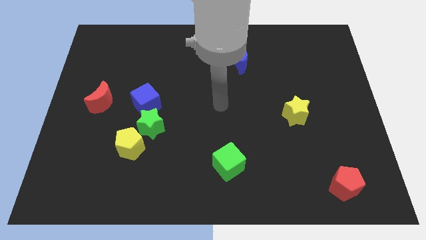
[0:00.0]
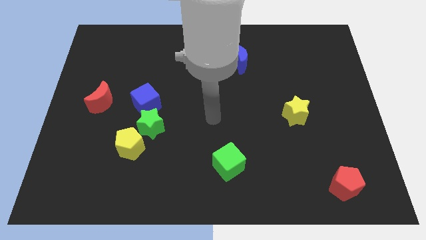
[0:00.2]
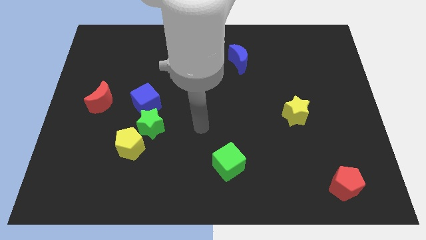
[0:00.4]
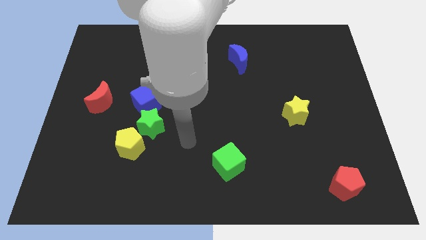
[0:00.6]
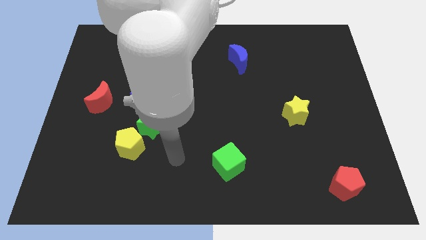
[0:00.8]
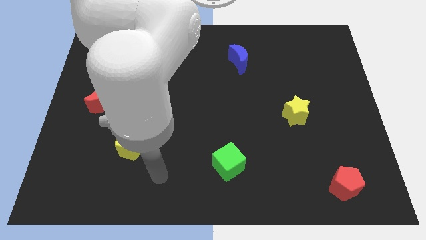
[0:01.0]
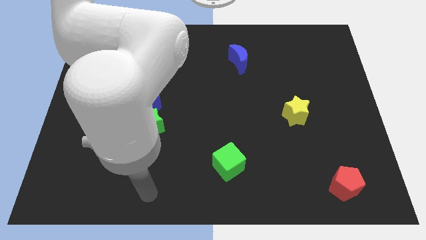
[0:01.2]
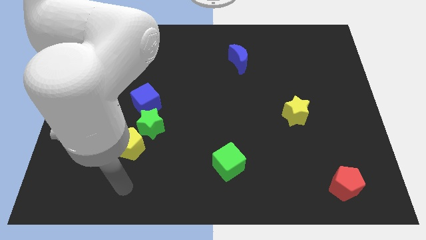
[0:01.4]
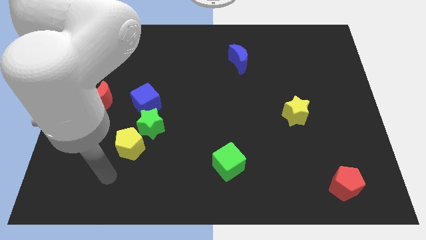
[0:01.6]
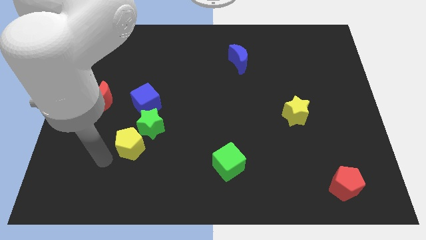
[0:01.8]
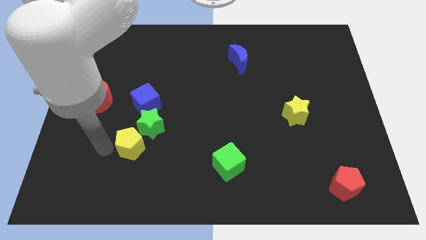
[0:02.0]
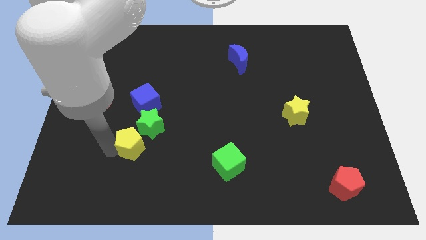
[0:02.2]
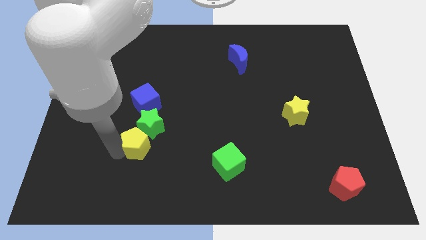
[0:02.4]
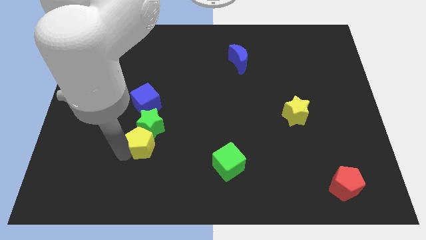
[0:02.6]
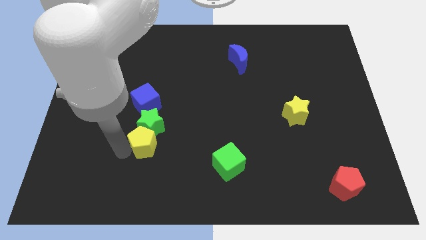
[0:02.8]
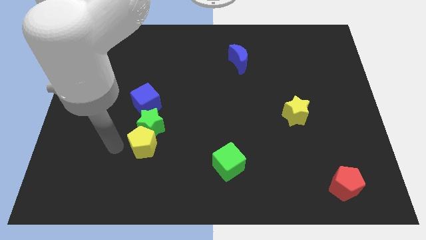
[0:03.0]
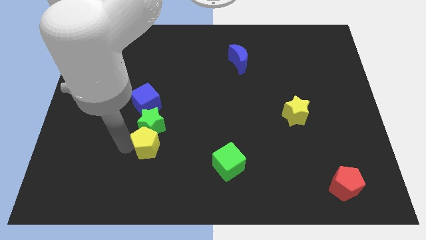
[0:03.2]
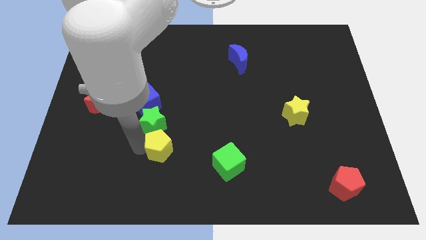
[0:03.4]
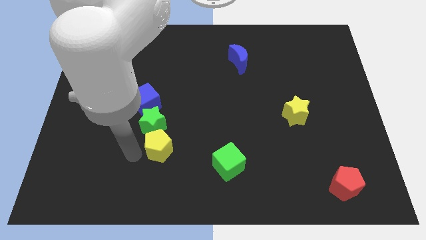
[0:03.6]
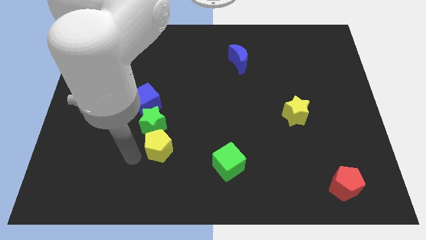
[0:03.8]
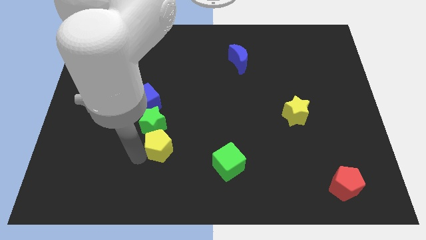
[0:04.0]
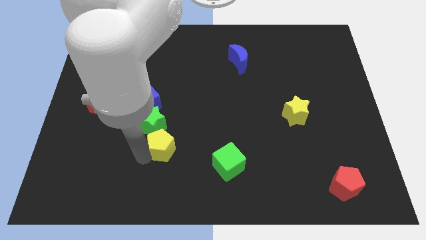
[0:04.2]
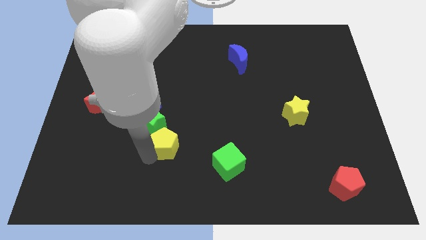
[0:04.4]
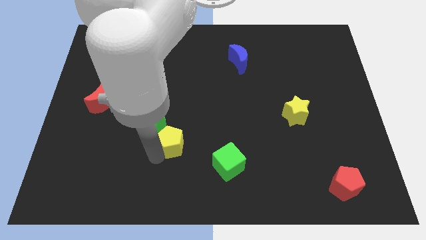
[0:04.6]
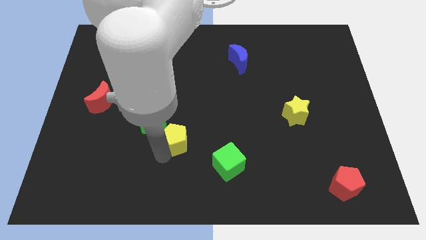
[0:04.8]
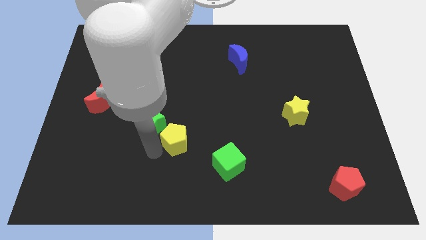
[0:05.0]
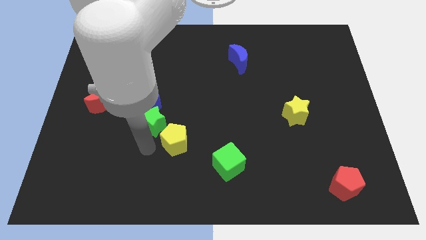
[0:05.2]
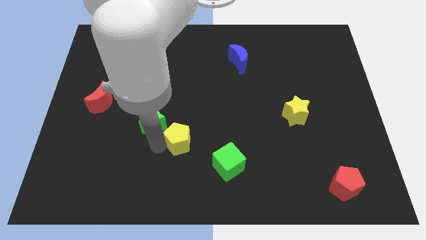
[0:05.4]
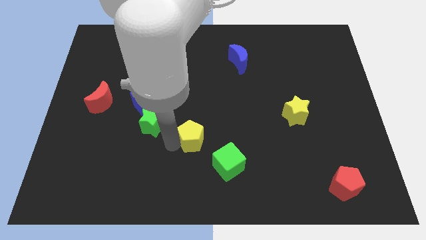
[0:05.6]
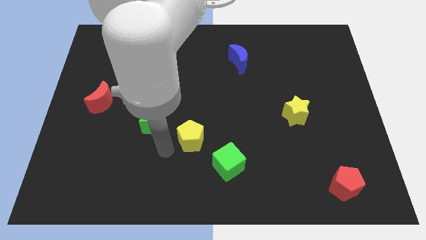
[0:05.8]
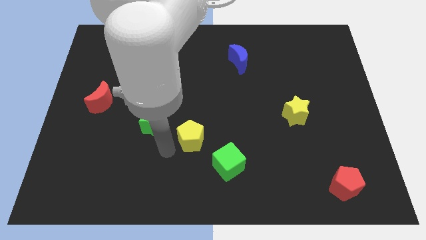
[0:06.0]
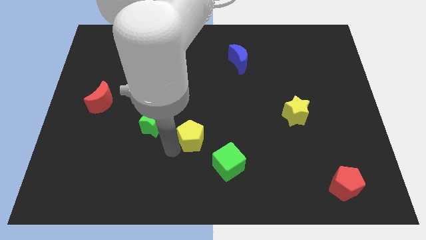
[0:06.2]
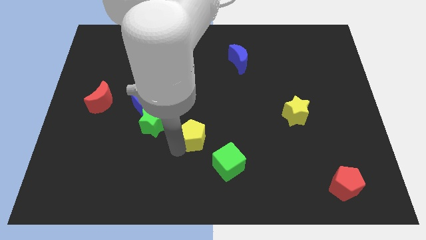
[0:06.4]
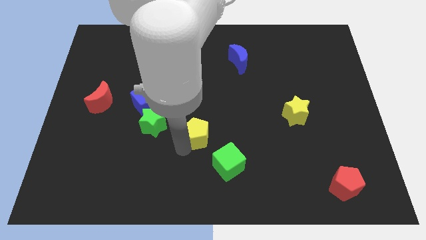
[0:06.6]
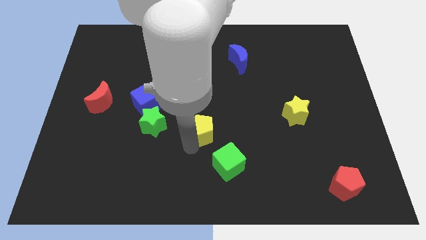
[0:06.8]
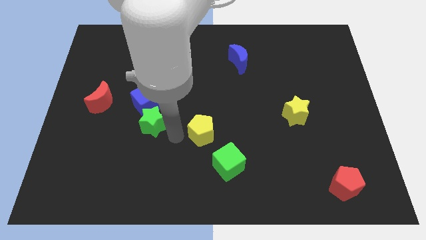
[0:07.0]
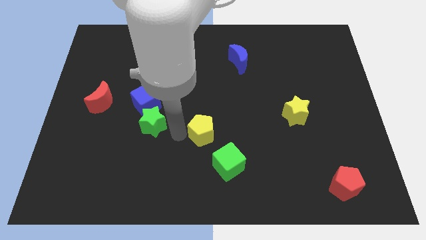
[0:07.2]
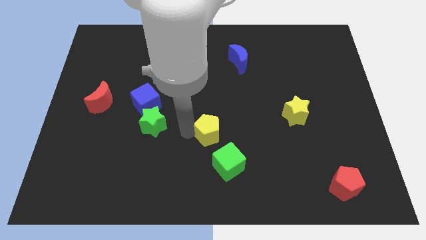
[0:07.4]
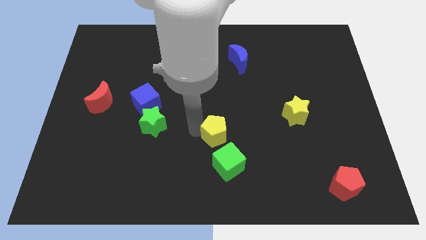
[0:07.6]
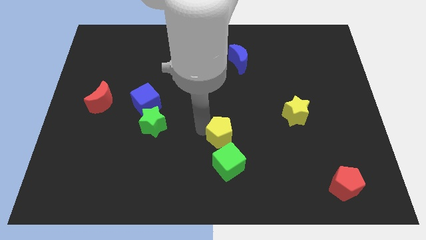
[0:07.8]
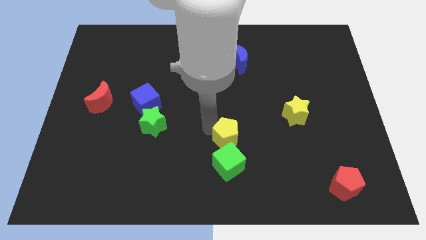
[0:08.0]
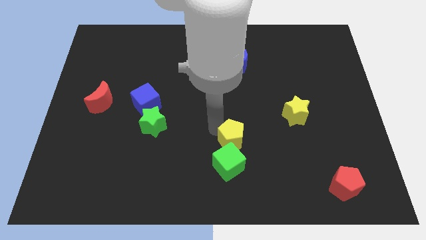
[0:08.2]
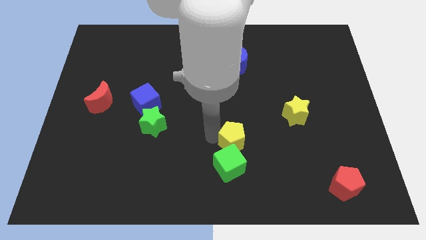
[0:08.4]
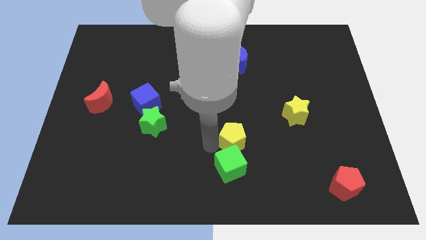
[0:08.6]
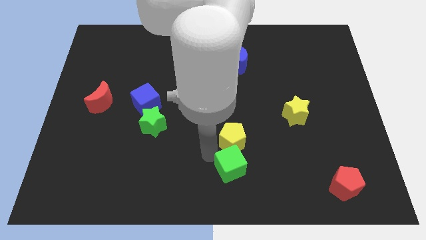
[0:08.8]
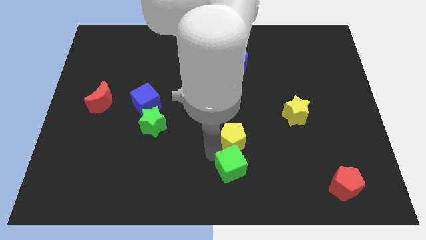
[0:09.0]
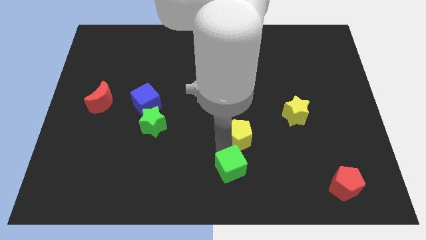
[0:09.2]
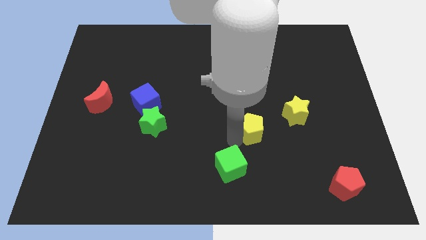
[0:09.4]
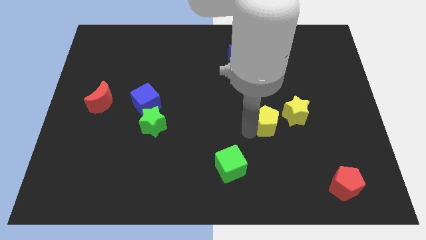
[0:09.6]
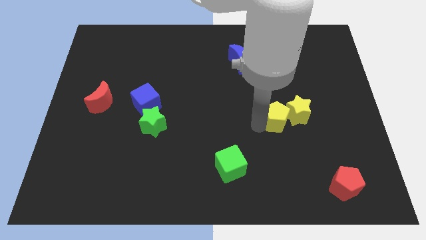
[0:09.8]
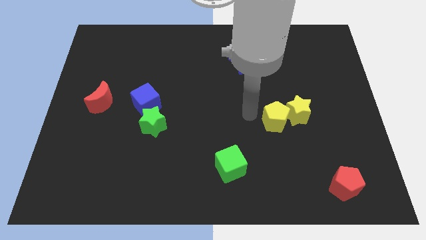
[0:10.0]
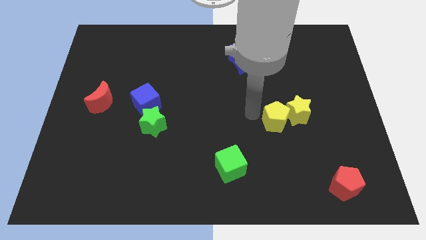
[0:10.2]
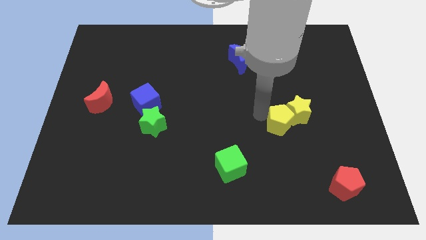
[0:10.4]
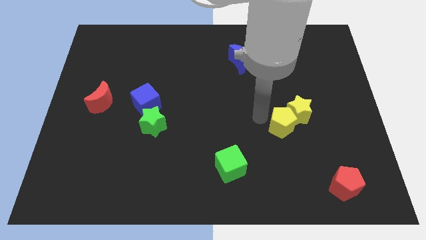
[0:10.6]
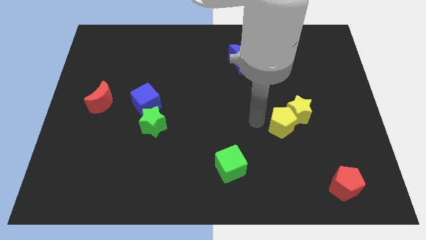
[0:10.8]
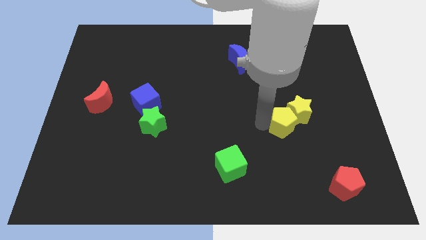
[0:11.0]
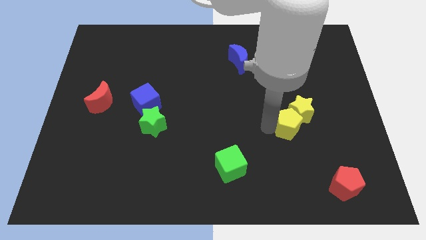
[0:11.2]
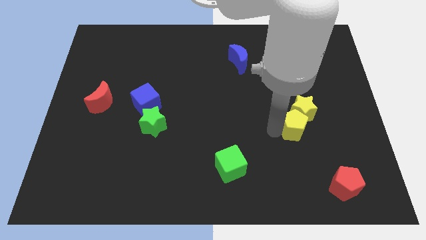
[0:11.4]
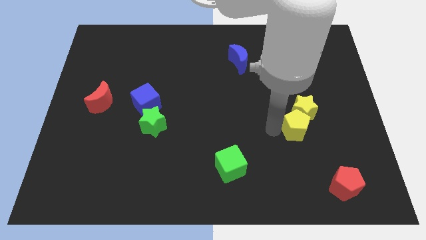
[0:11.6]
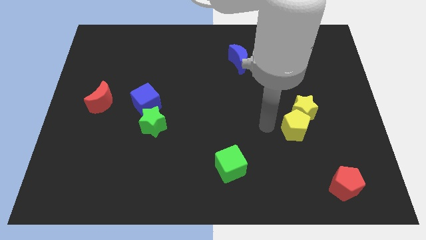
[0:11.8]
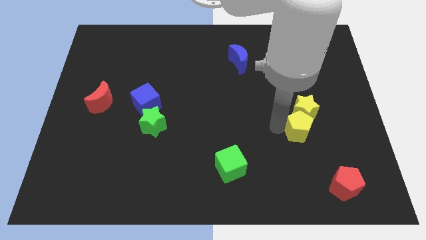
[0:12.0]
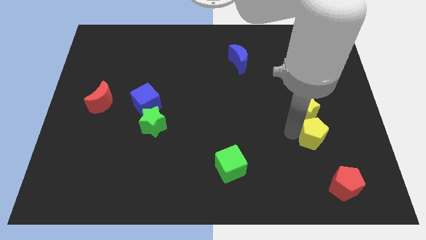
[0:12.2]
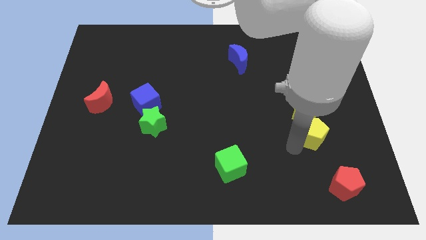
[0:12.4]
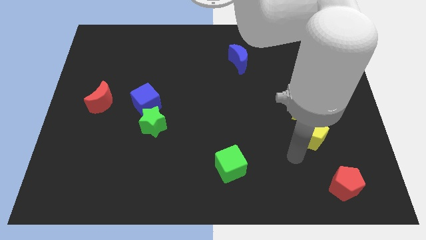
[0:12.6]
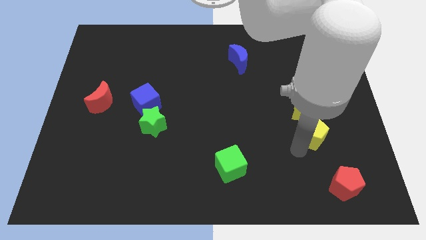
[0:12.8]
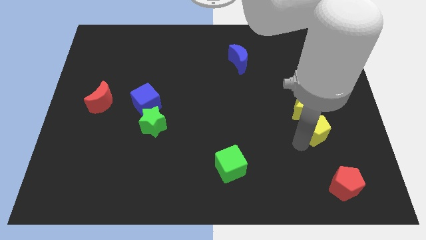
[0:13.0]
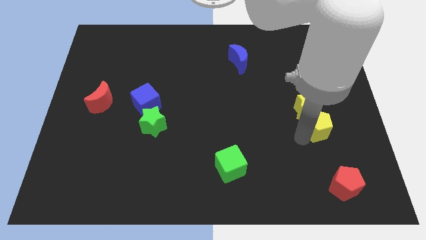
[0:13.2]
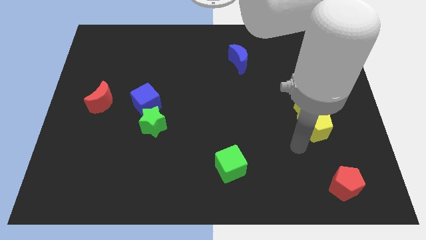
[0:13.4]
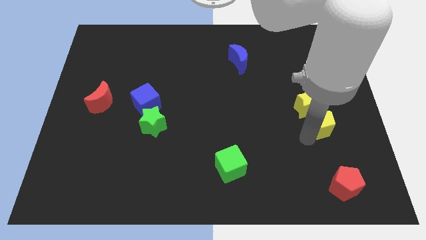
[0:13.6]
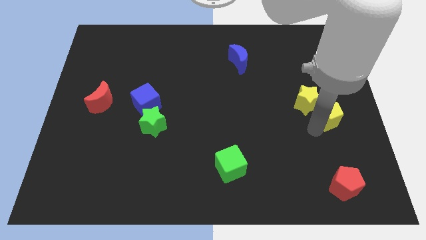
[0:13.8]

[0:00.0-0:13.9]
slide the yellow pentagon to the center right

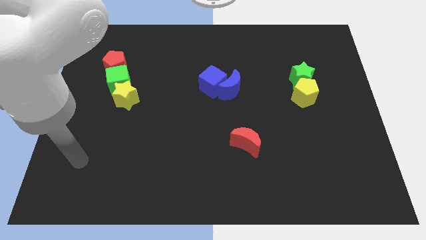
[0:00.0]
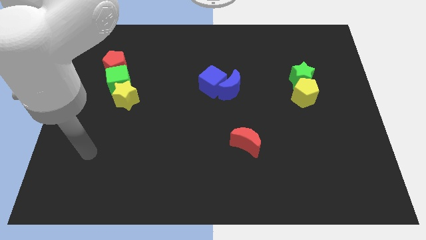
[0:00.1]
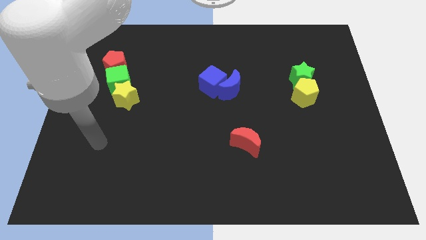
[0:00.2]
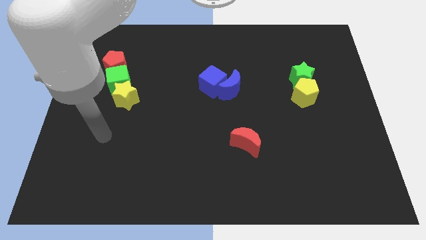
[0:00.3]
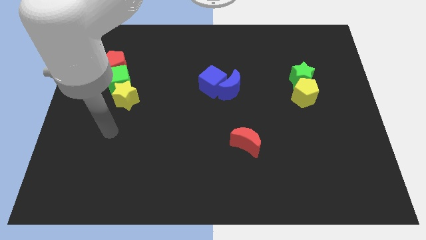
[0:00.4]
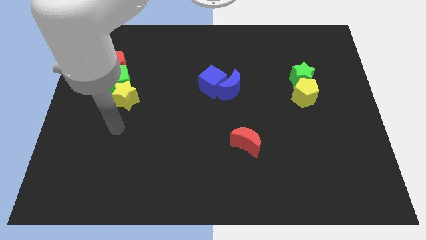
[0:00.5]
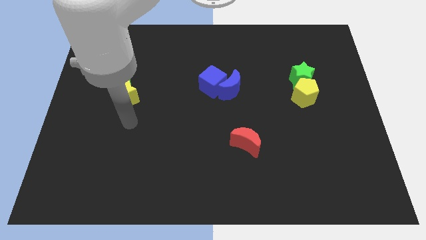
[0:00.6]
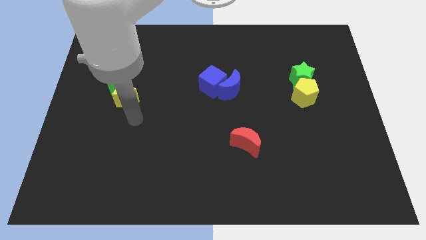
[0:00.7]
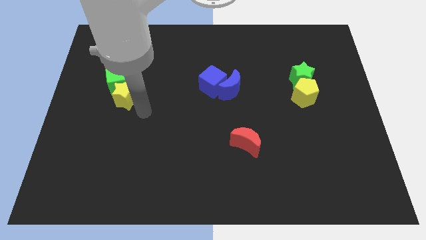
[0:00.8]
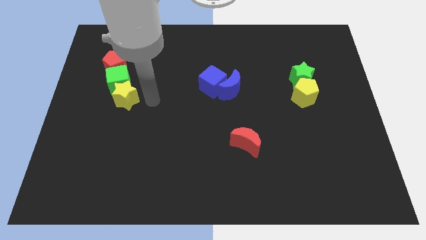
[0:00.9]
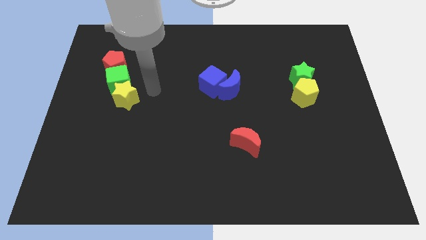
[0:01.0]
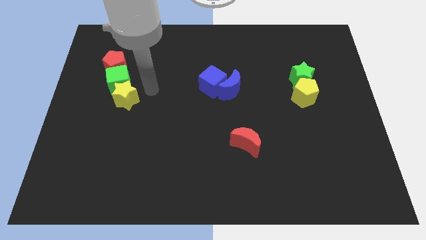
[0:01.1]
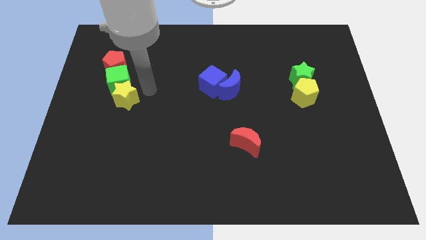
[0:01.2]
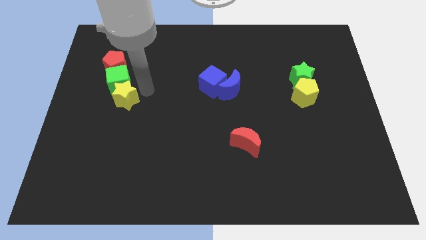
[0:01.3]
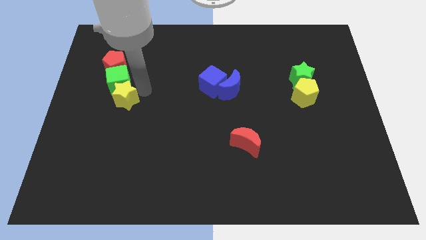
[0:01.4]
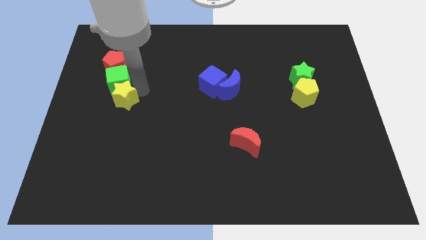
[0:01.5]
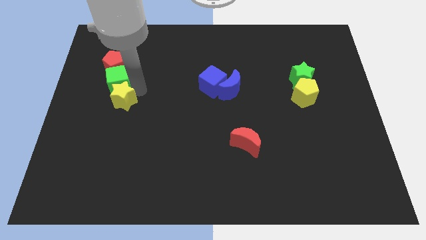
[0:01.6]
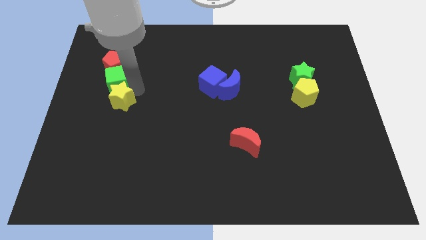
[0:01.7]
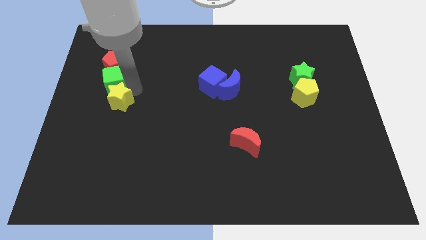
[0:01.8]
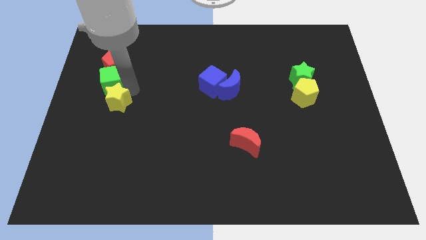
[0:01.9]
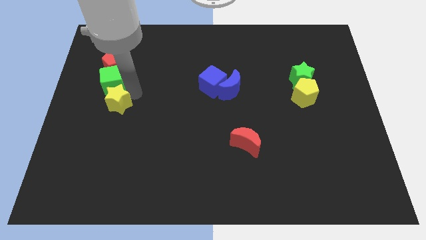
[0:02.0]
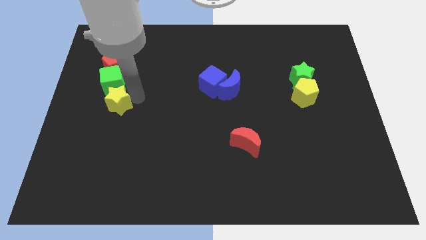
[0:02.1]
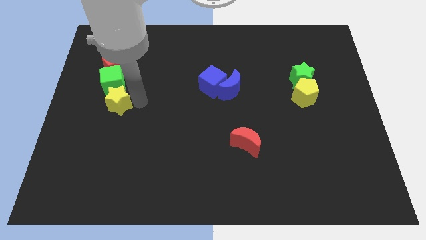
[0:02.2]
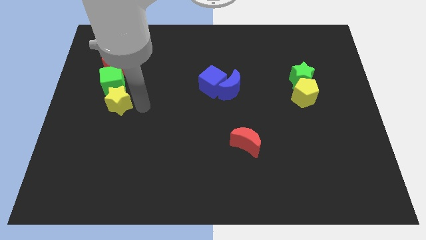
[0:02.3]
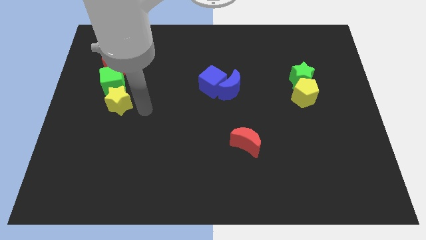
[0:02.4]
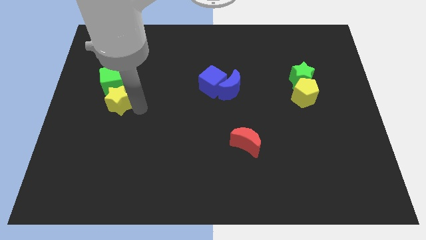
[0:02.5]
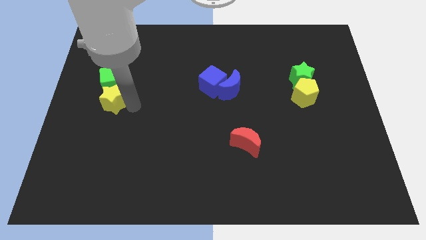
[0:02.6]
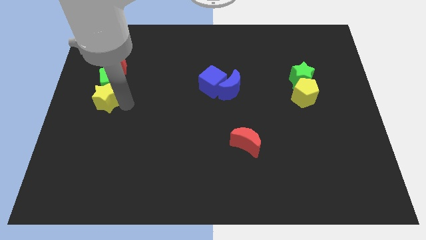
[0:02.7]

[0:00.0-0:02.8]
put the yellow star to the center left
